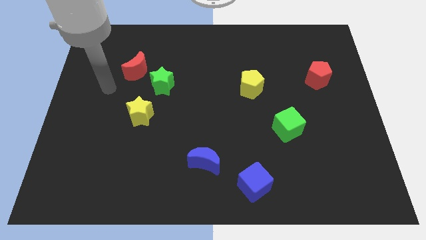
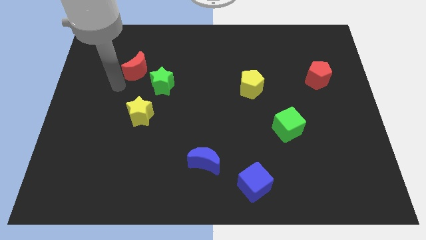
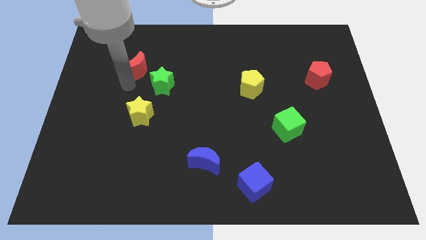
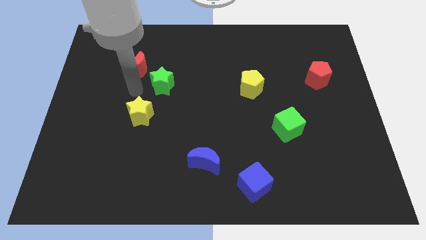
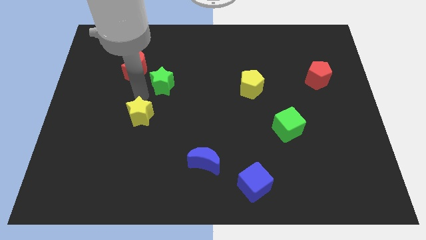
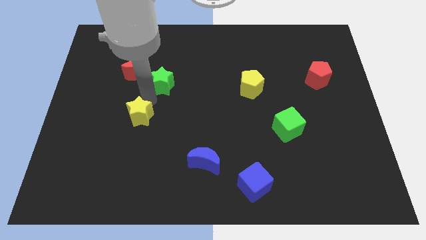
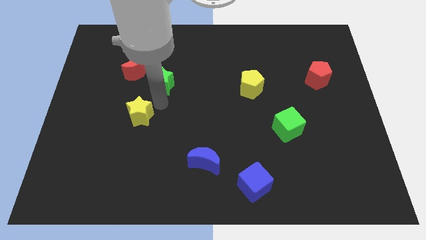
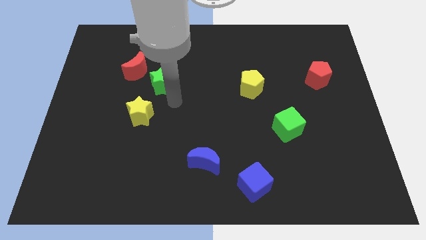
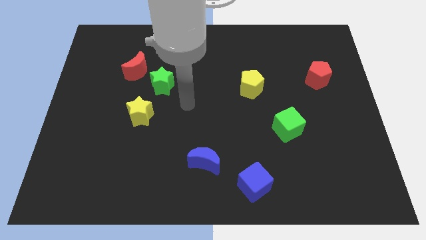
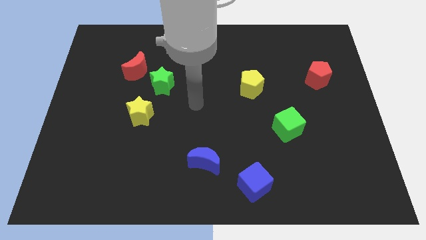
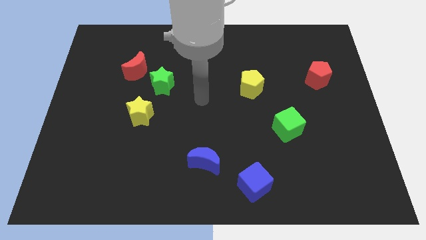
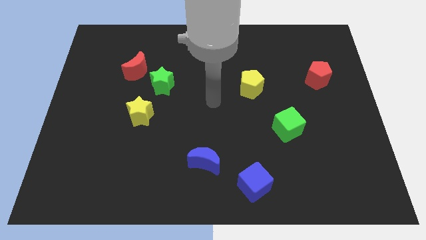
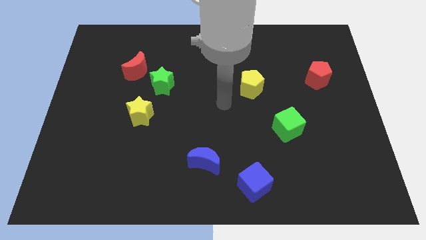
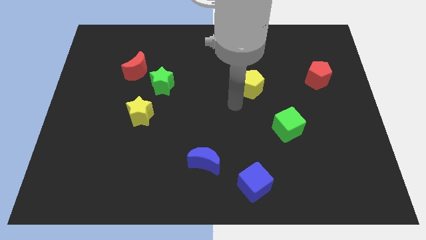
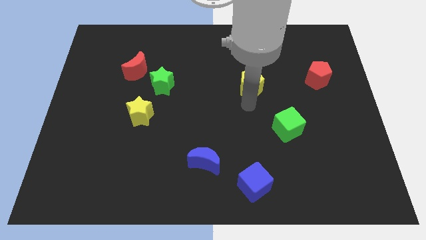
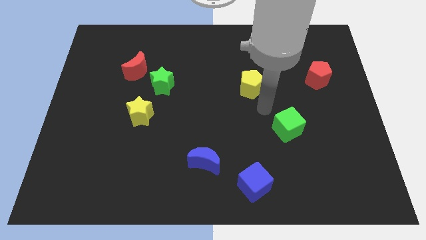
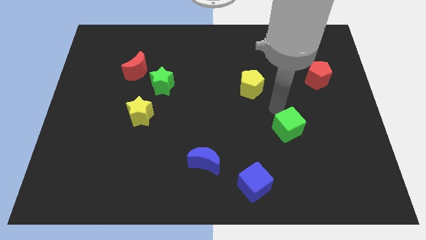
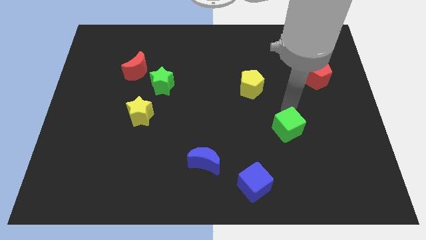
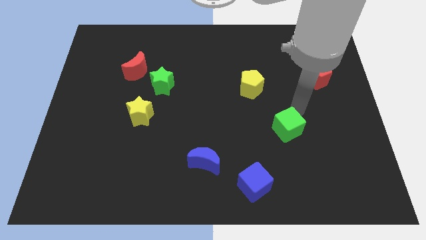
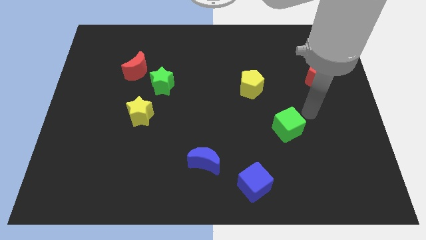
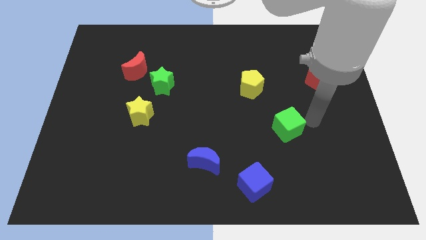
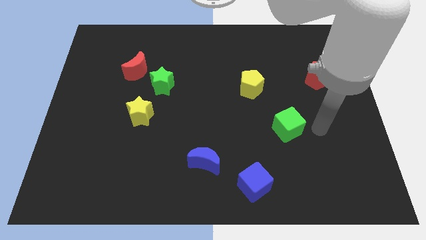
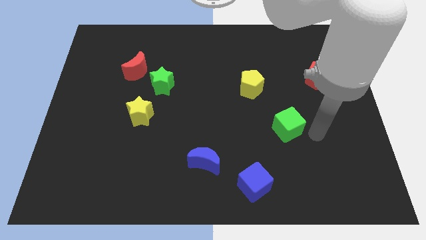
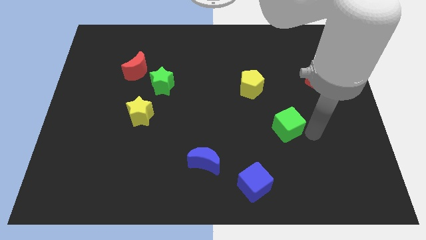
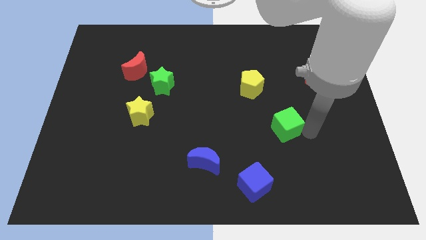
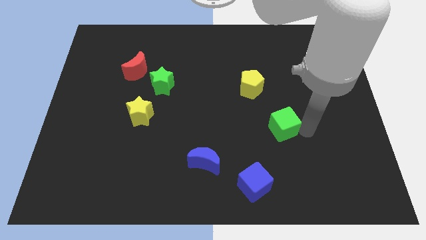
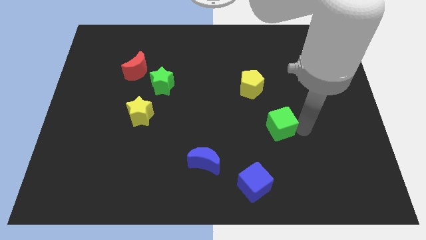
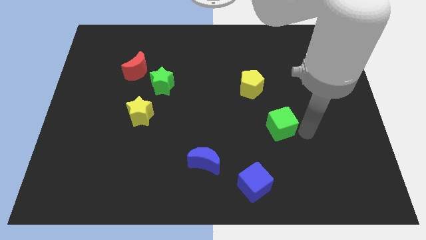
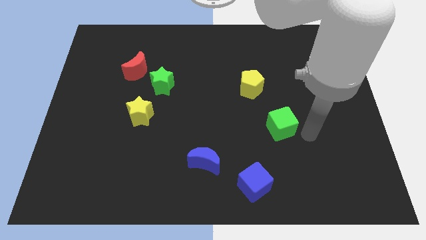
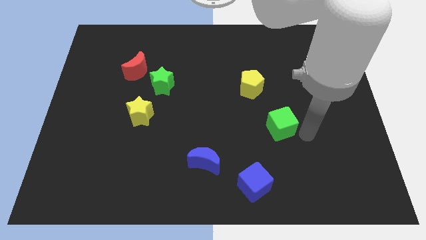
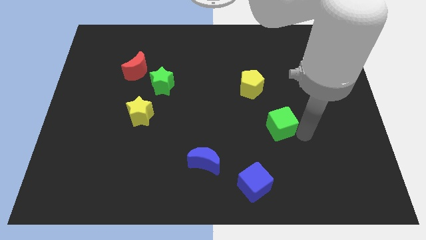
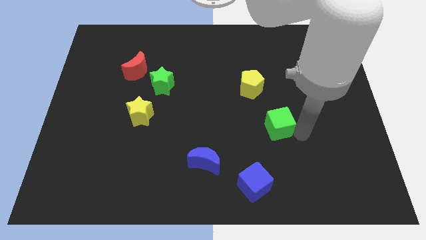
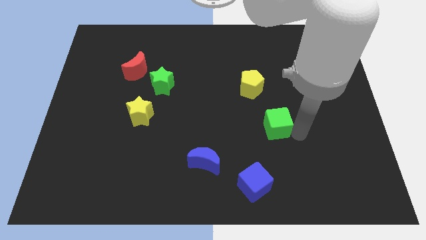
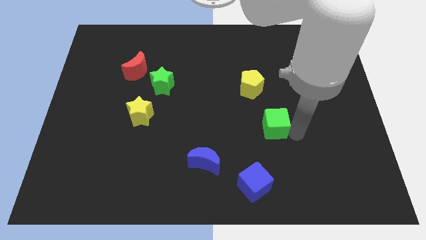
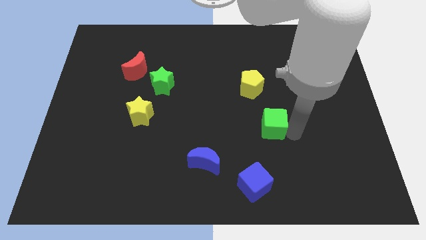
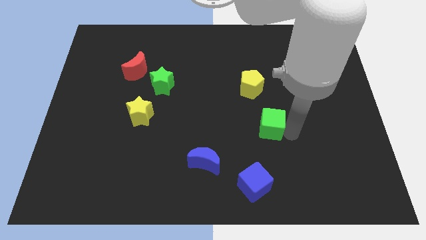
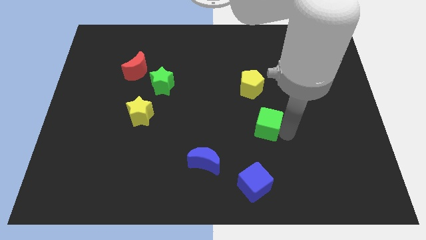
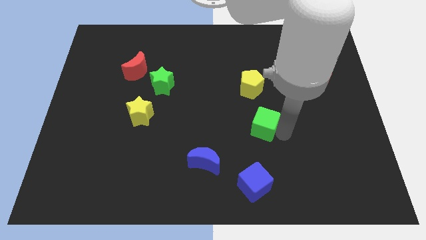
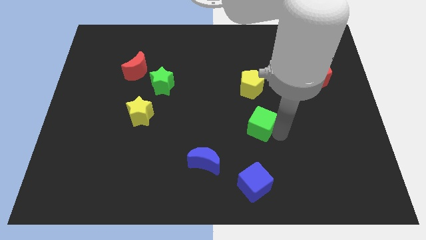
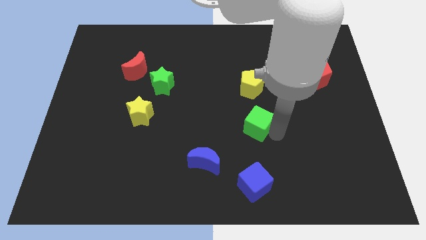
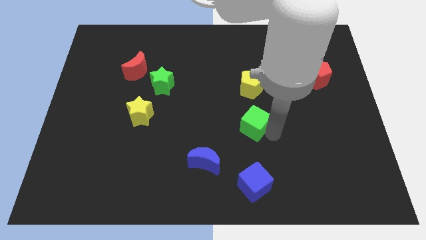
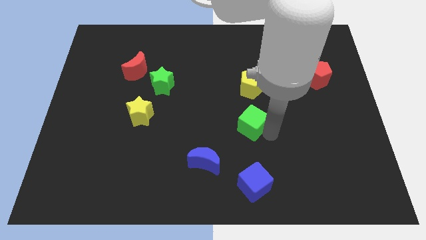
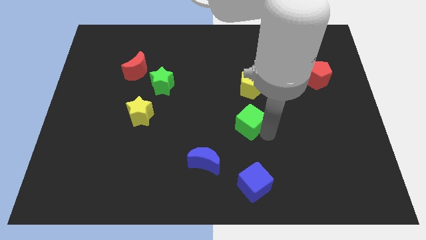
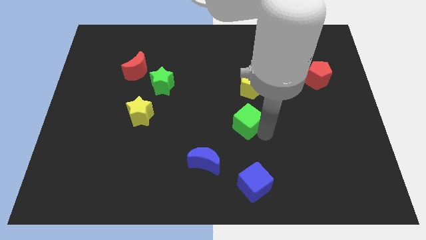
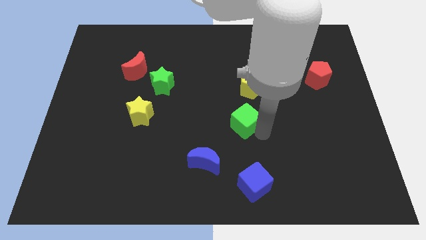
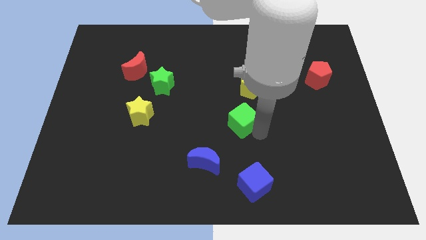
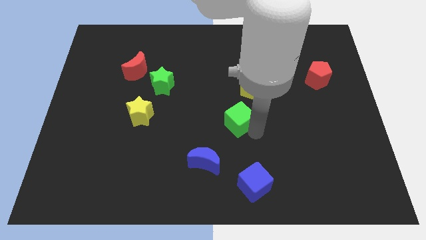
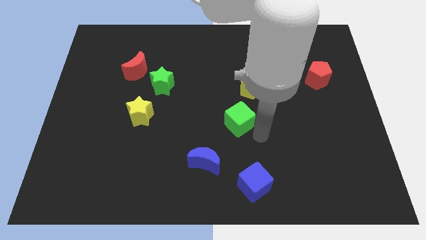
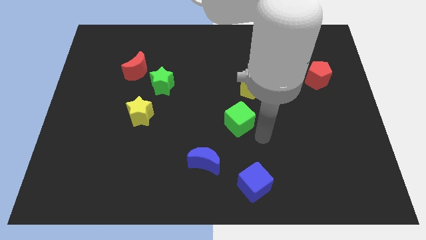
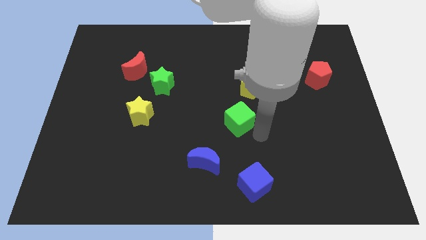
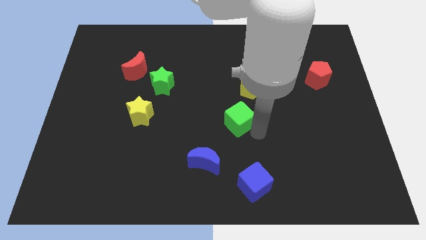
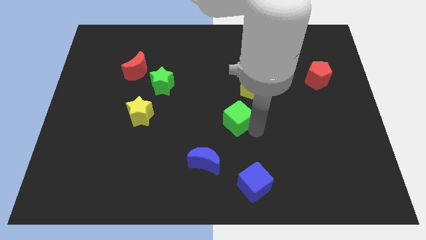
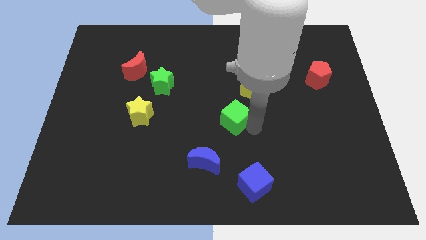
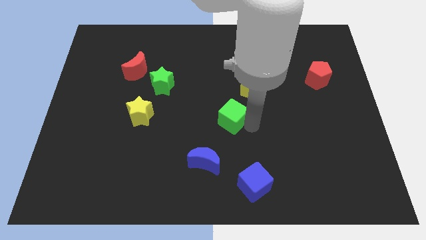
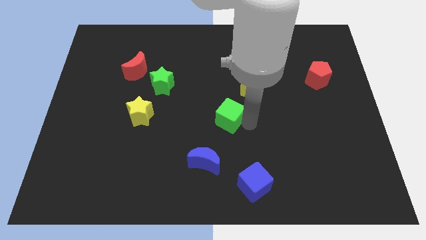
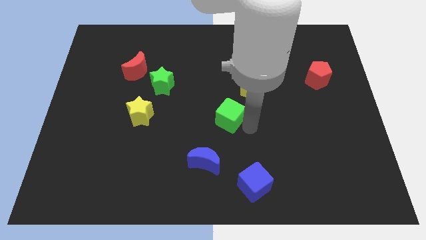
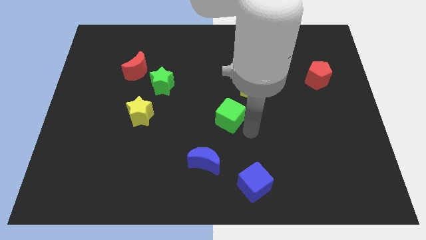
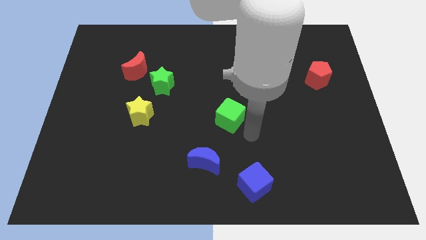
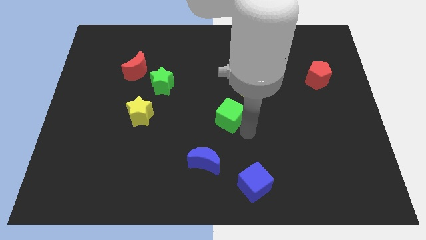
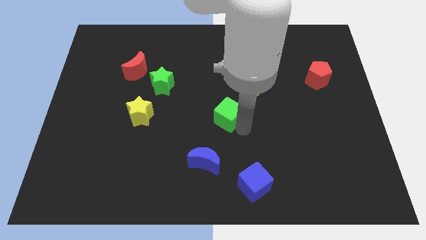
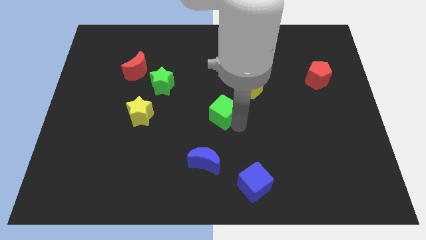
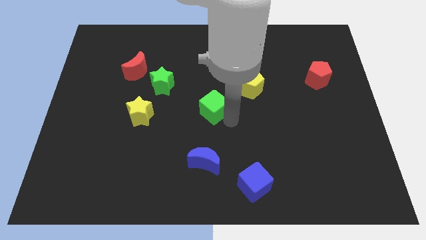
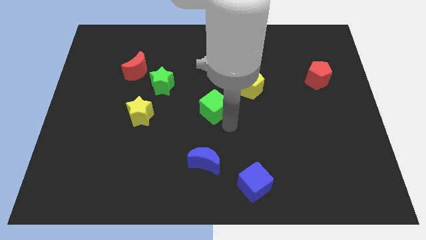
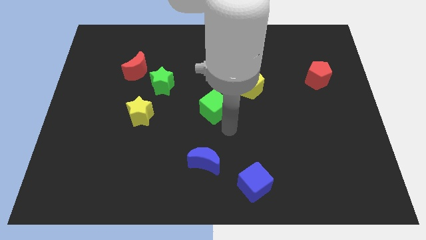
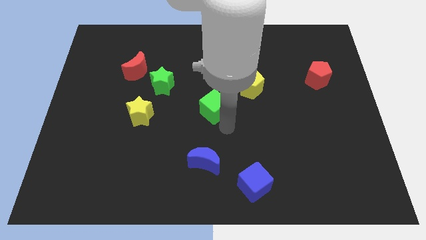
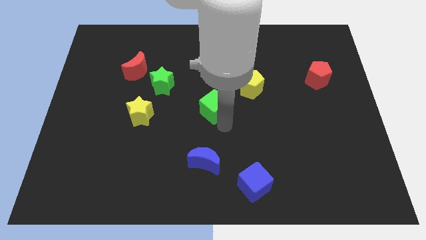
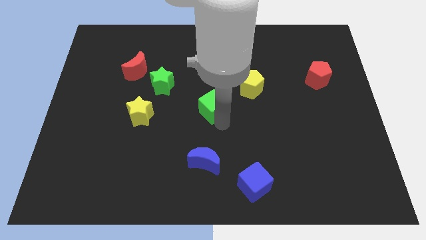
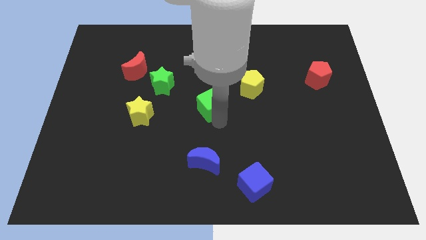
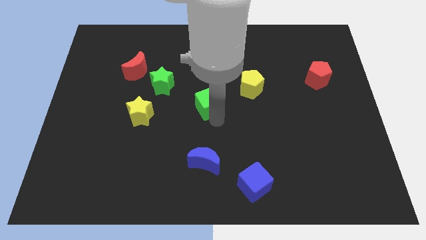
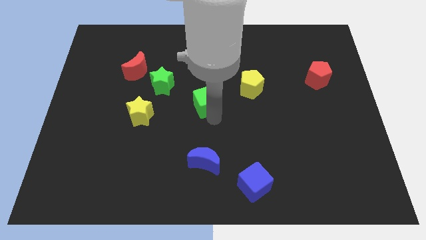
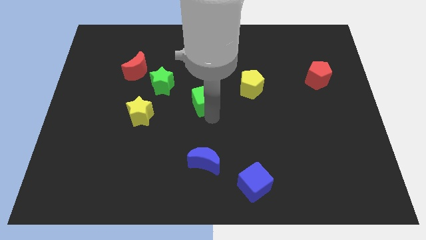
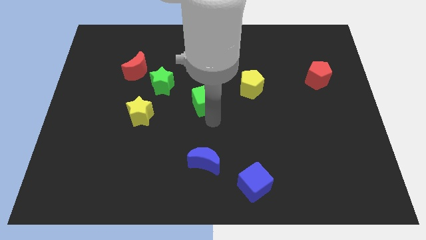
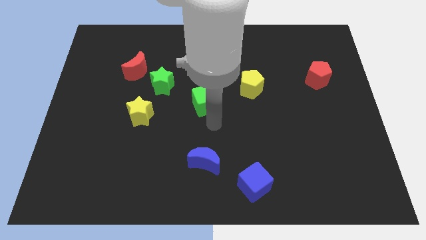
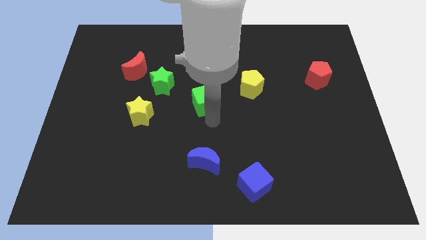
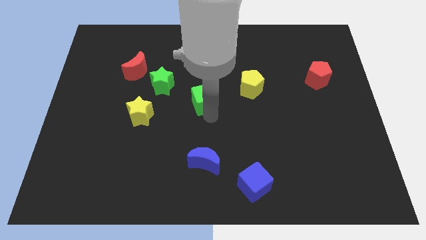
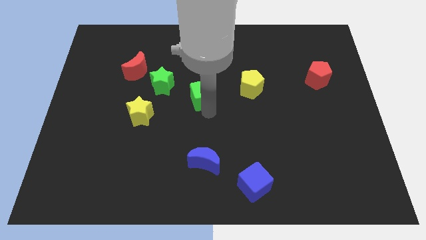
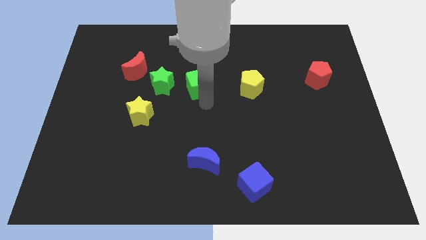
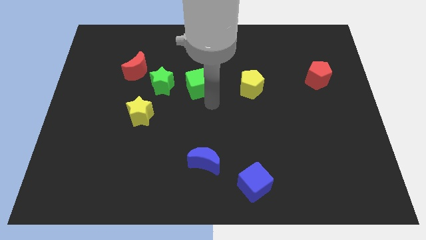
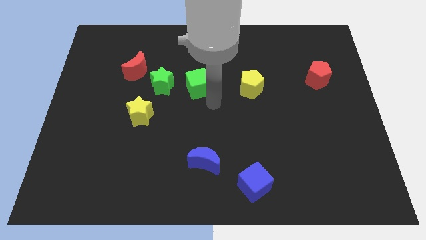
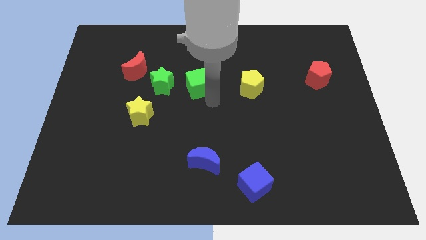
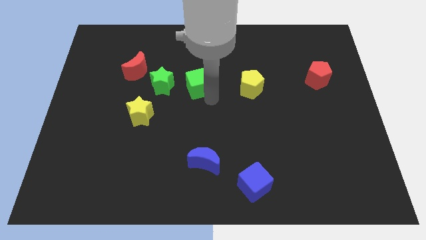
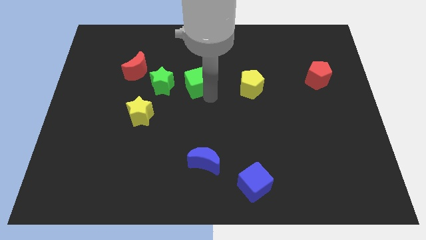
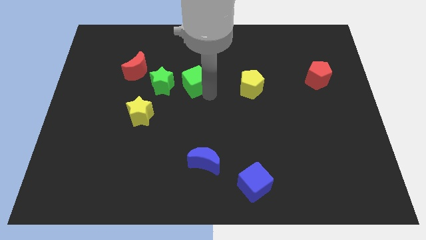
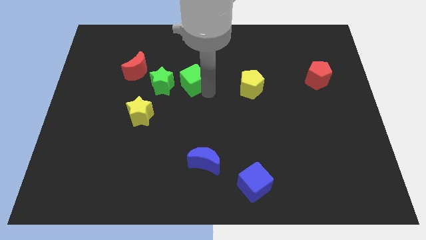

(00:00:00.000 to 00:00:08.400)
put the green cube diagonally up and to the right of the green star
